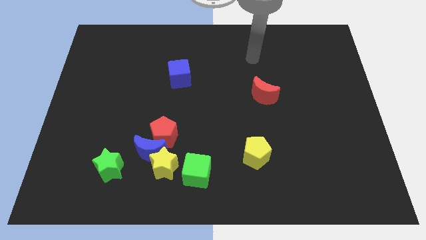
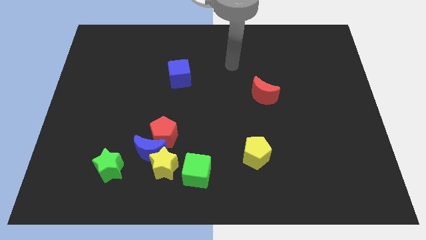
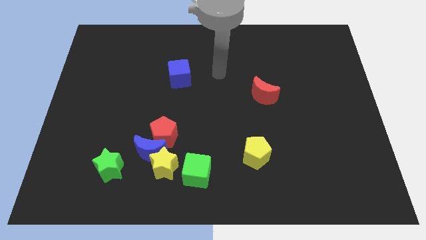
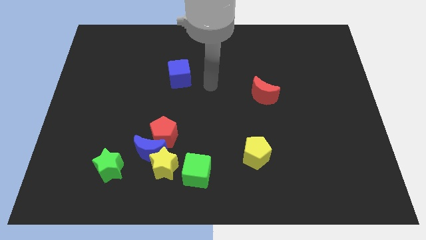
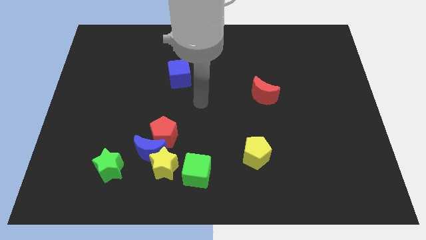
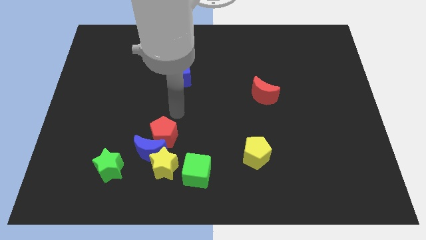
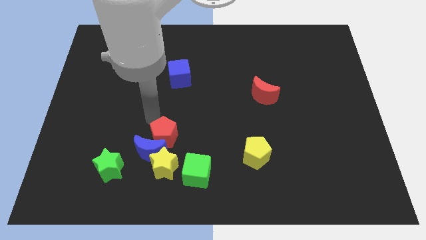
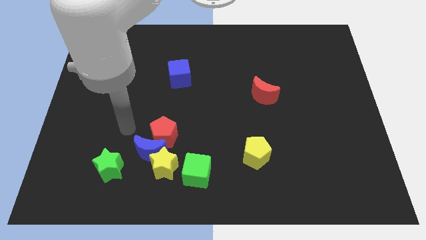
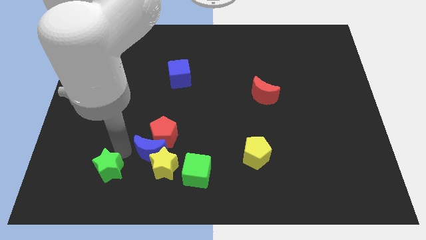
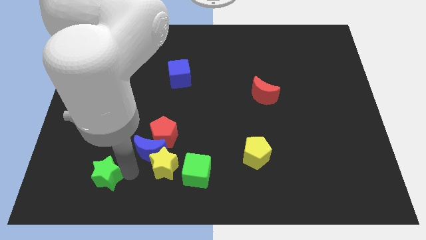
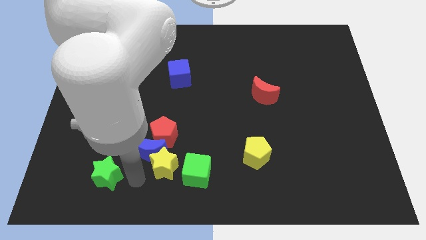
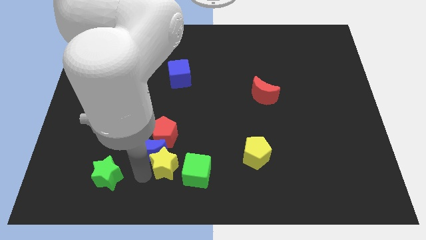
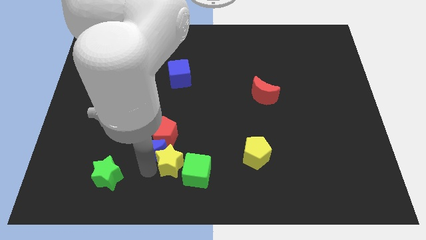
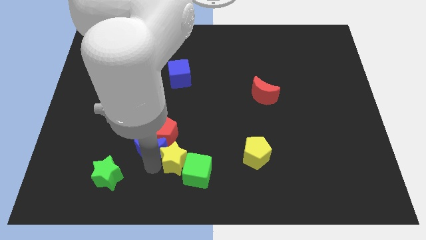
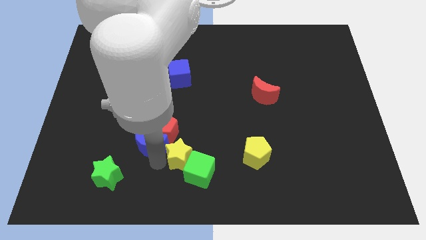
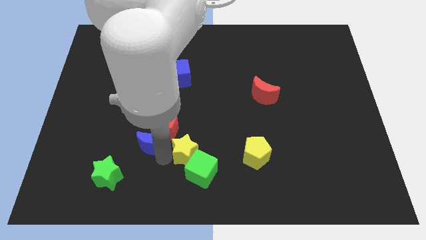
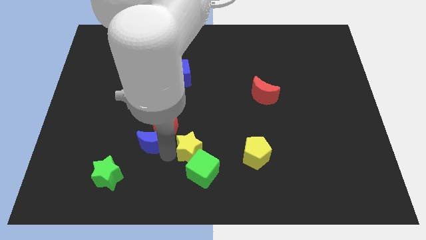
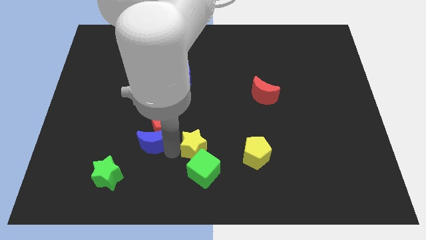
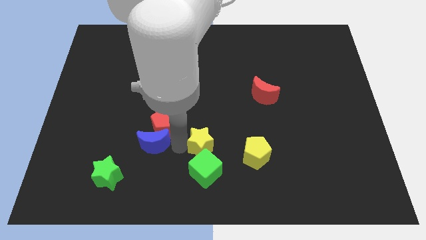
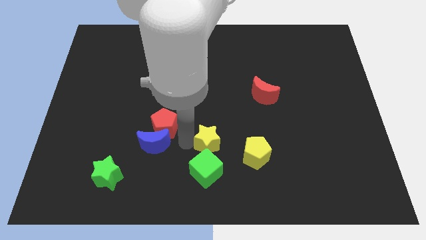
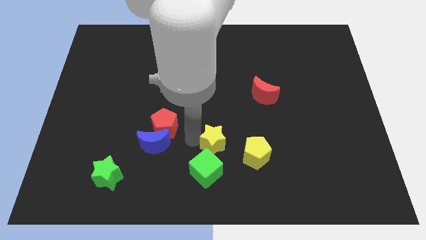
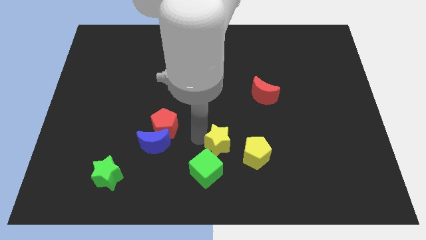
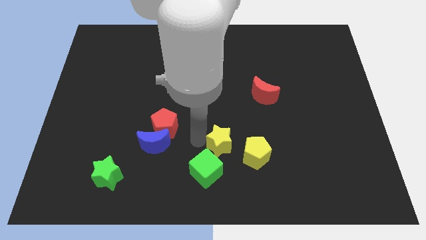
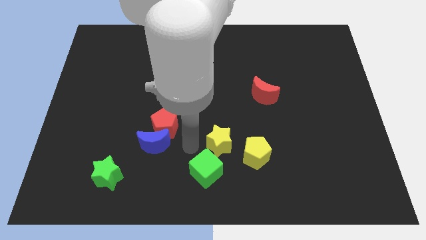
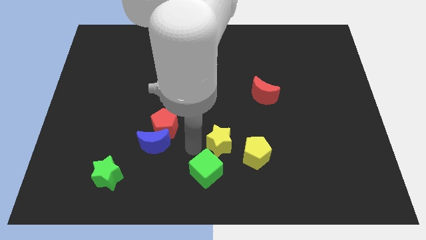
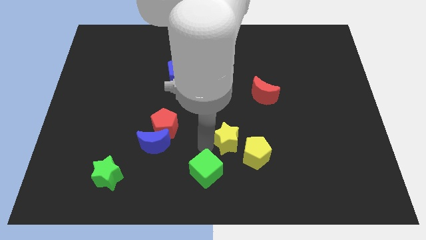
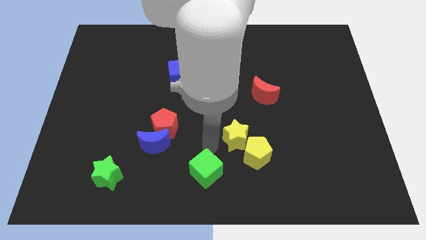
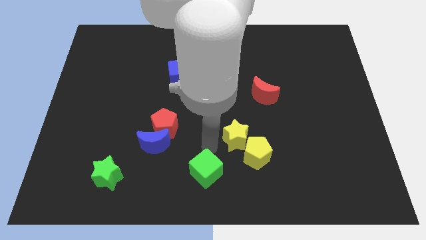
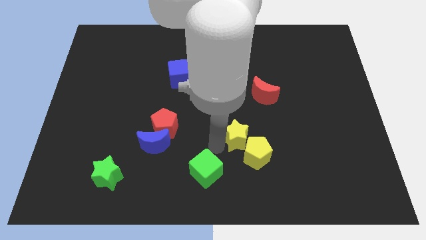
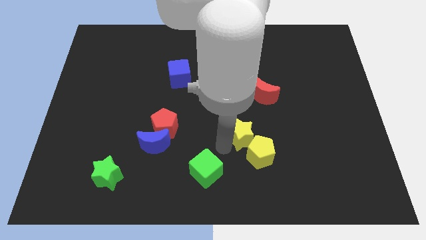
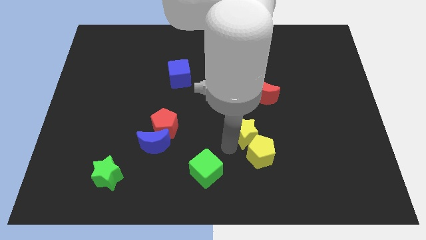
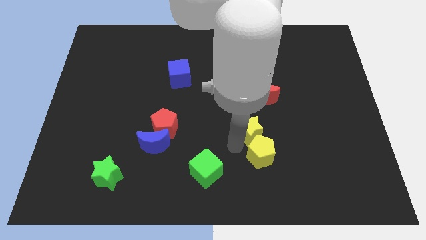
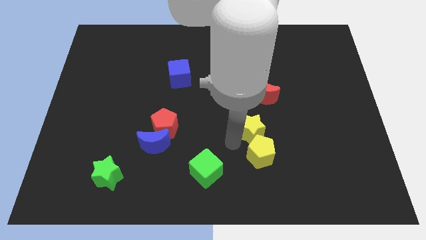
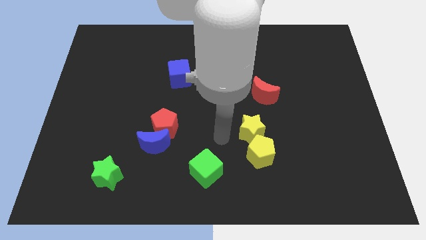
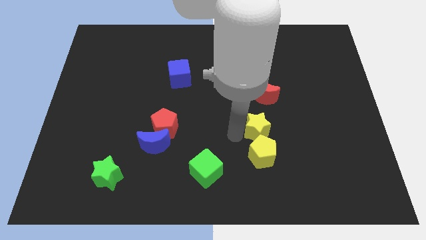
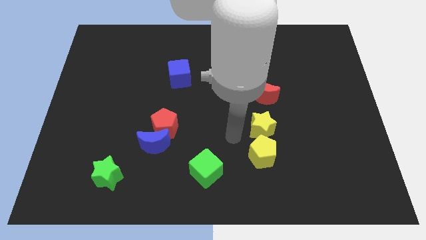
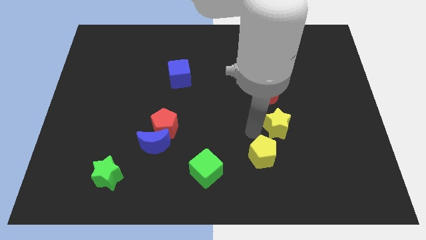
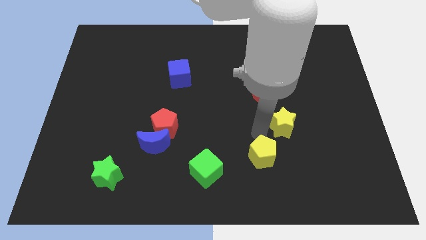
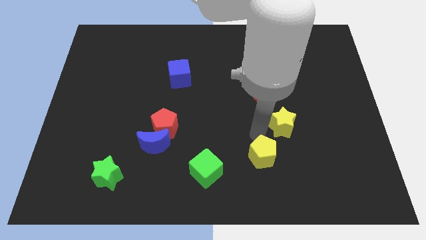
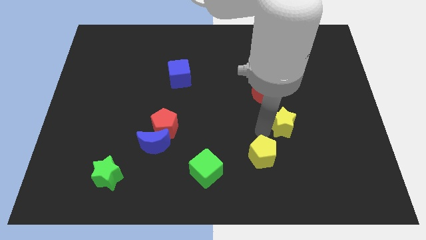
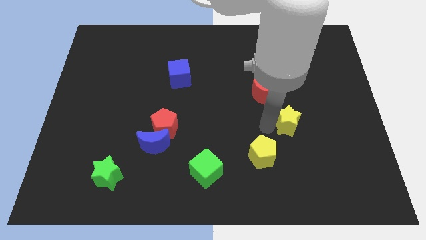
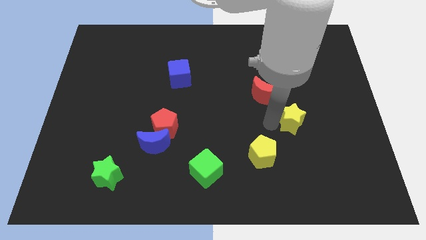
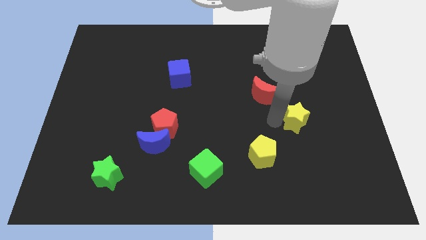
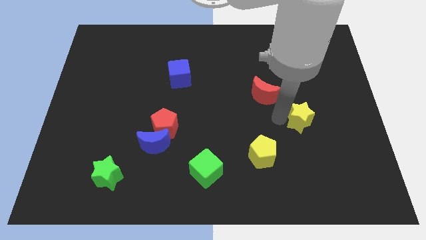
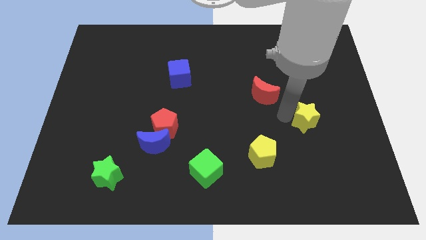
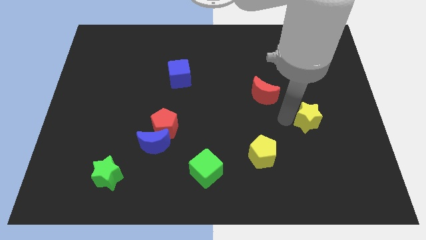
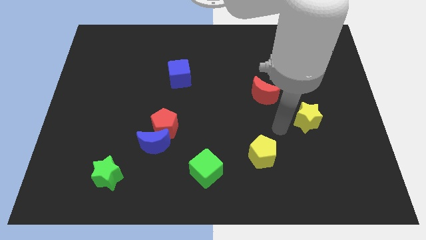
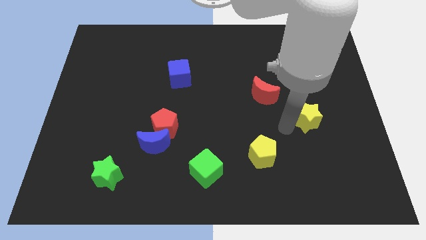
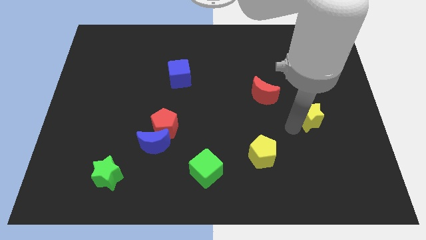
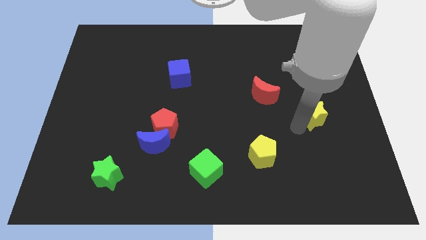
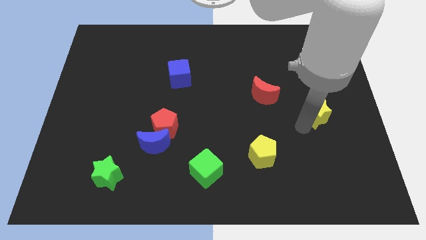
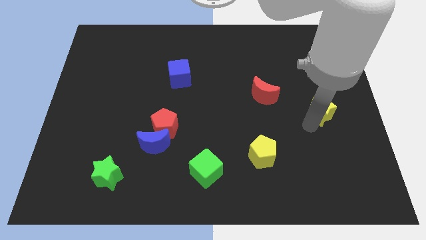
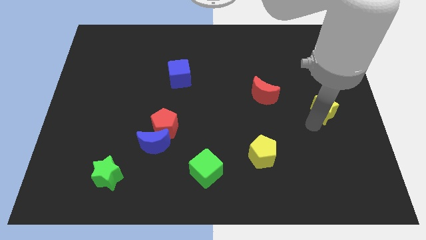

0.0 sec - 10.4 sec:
slide the yellow star to the right side

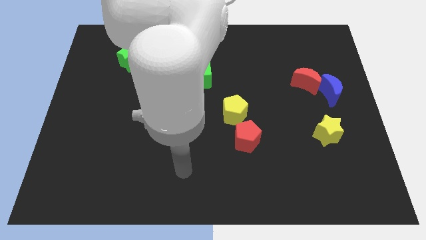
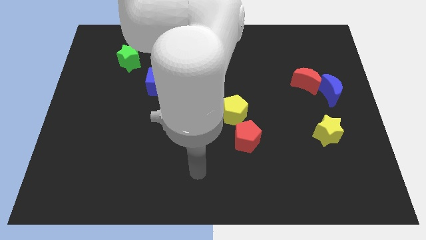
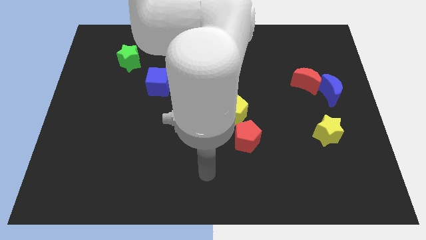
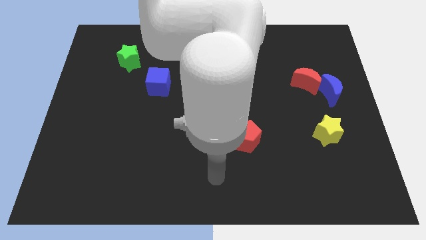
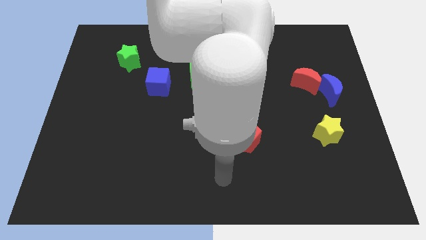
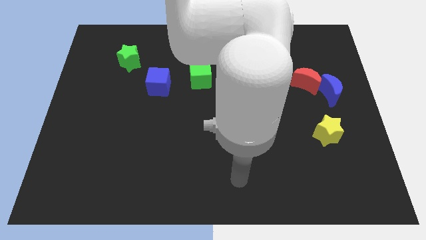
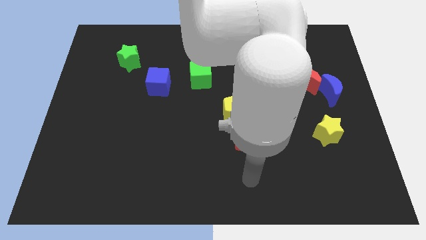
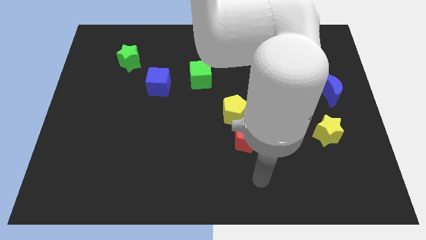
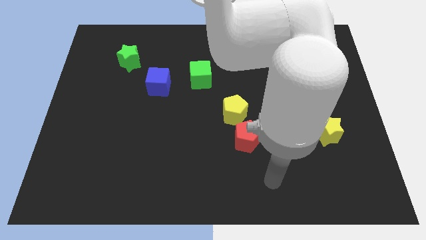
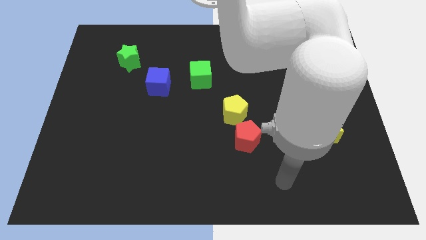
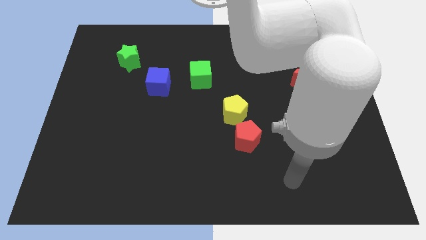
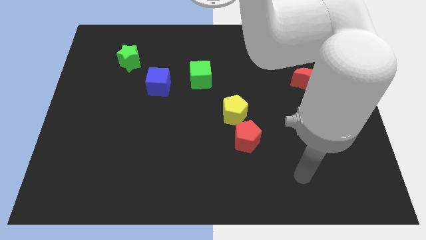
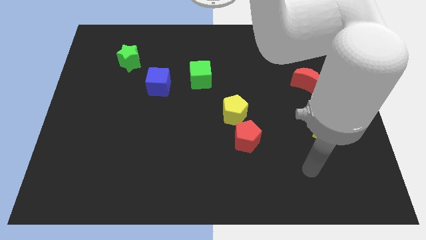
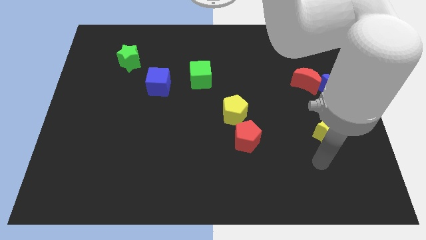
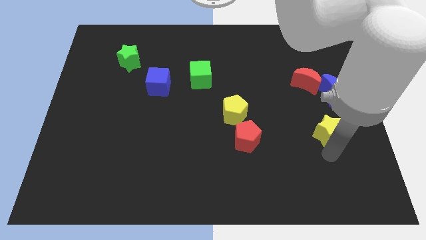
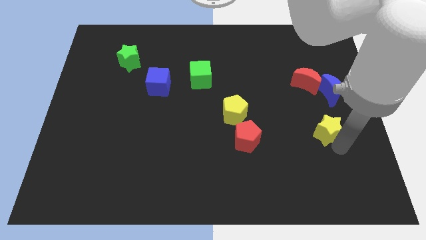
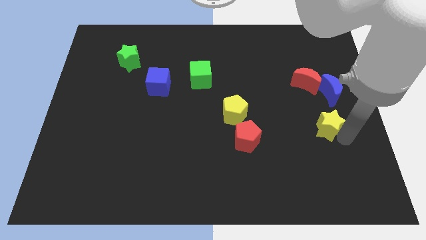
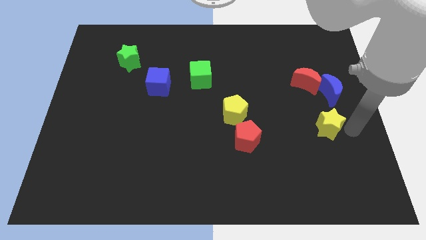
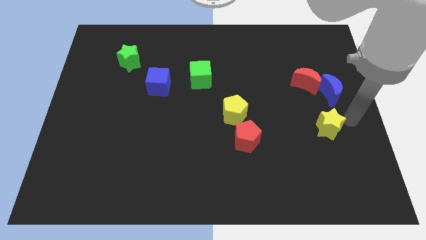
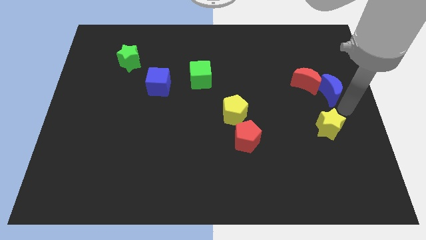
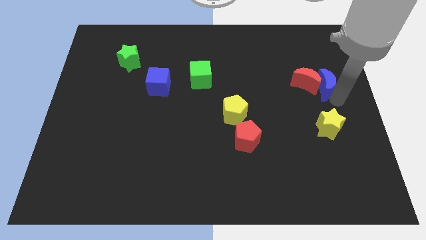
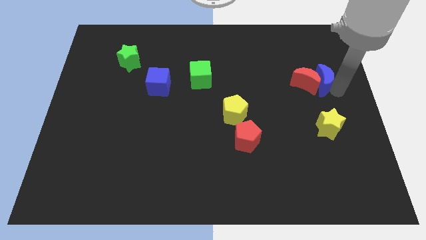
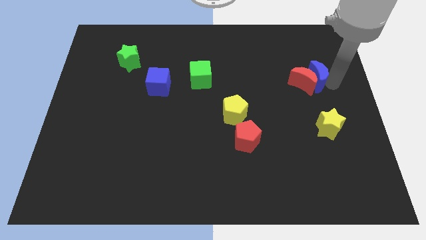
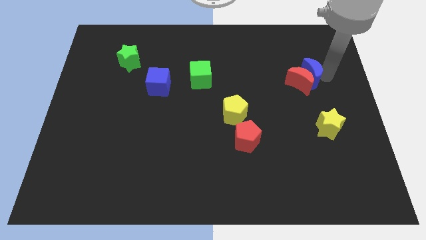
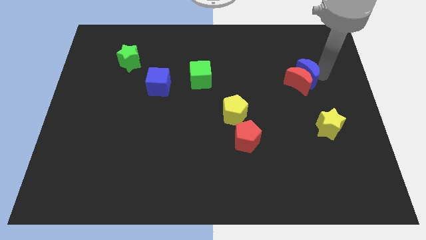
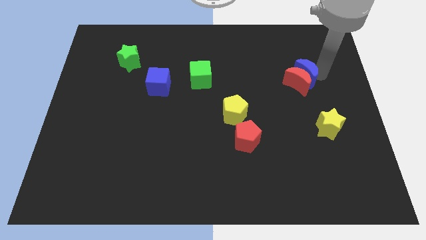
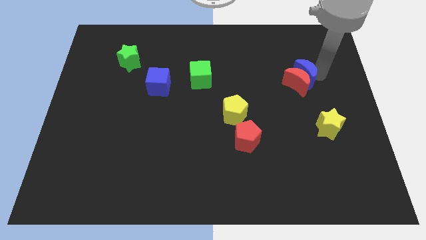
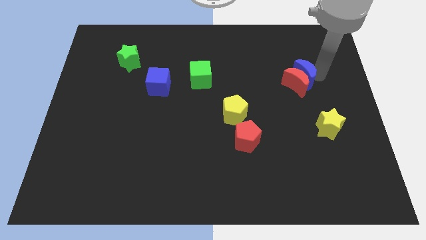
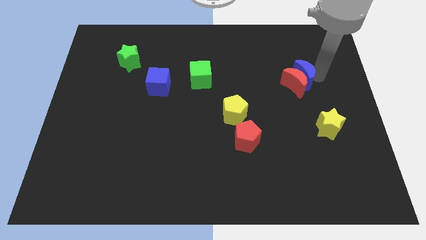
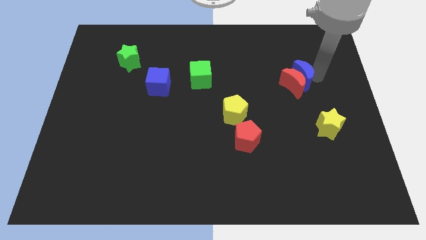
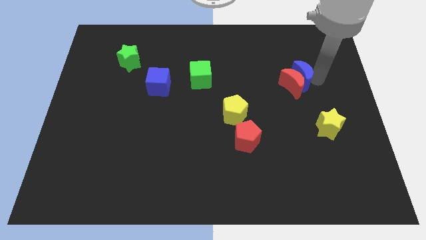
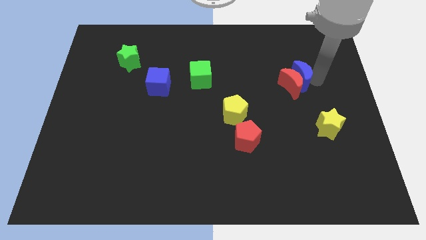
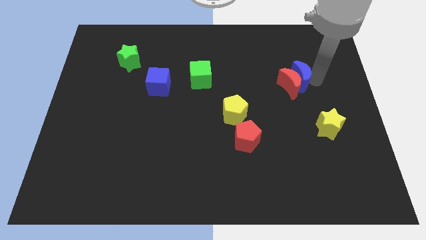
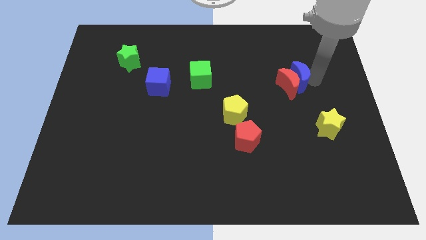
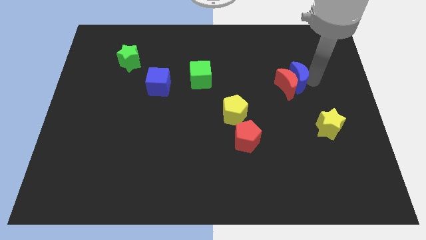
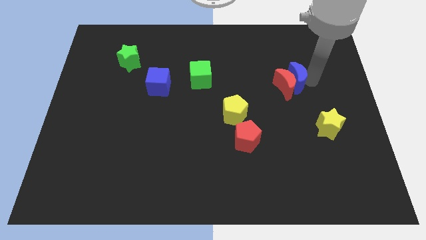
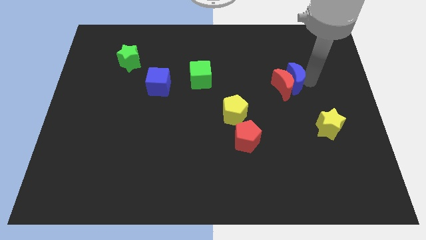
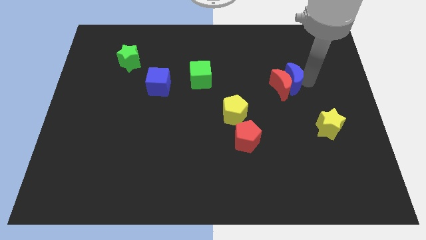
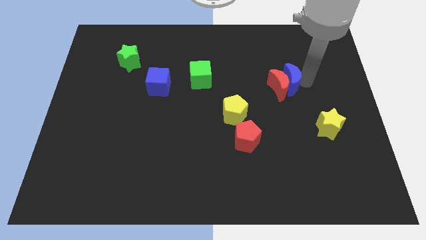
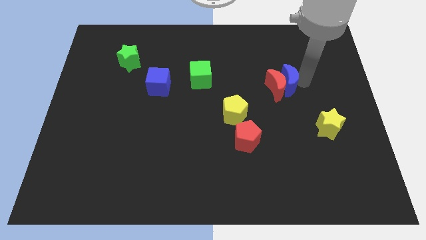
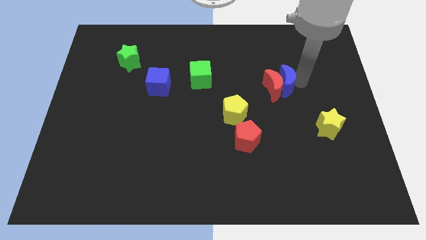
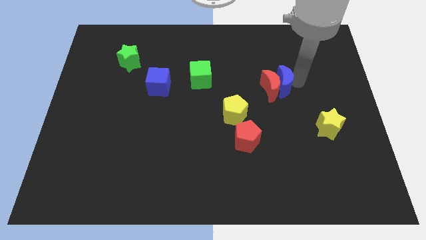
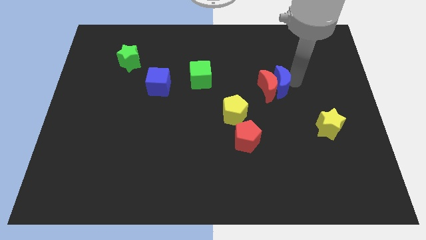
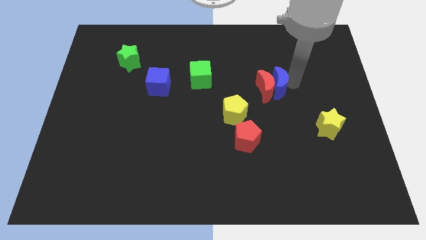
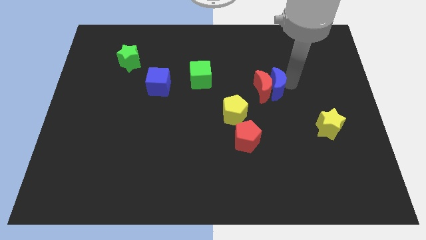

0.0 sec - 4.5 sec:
slide the red moon to the middle
